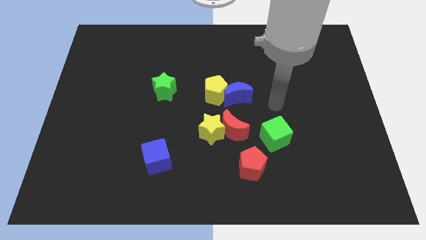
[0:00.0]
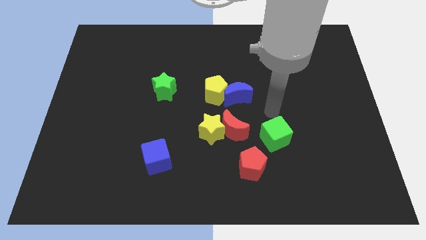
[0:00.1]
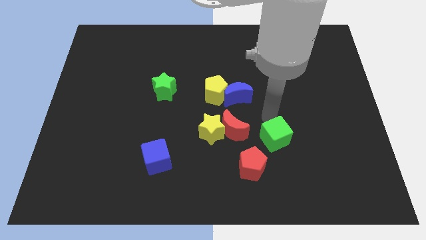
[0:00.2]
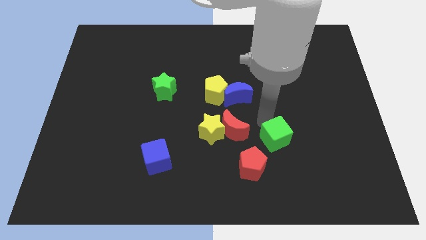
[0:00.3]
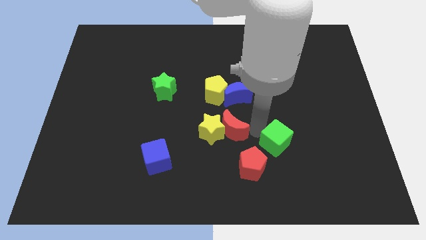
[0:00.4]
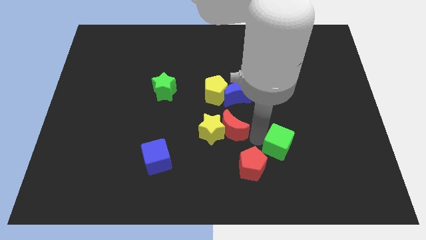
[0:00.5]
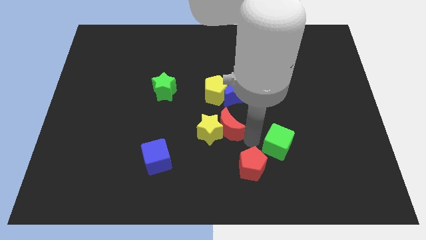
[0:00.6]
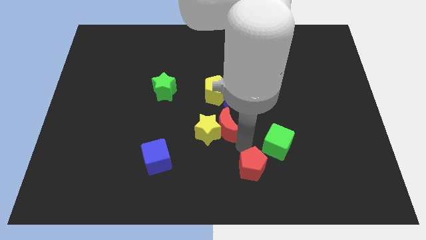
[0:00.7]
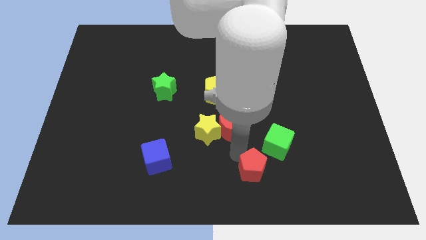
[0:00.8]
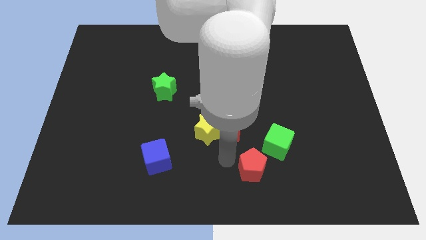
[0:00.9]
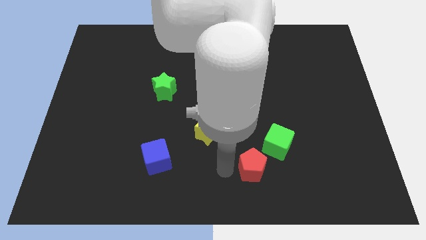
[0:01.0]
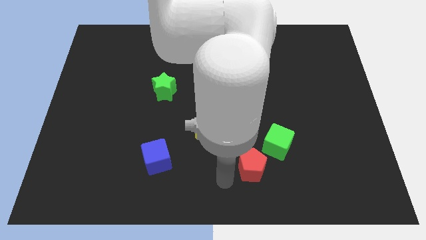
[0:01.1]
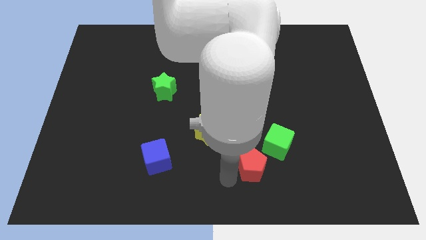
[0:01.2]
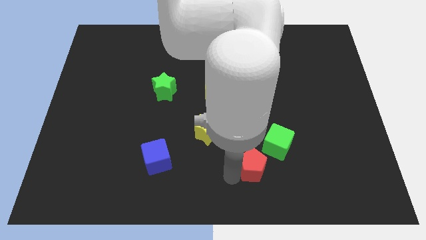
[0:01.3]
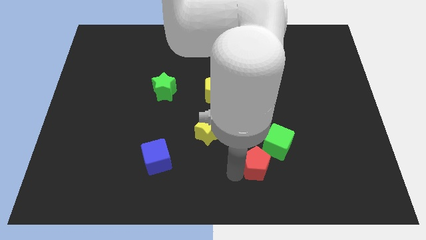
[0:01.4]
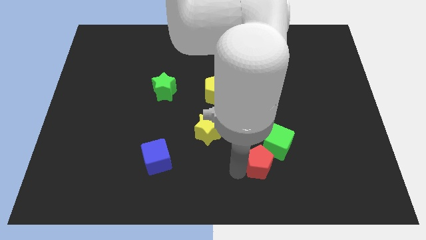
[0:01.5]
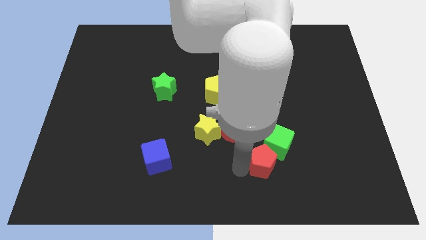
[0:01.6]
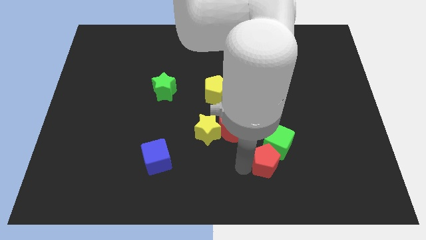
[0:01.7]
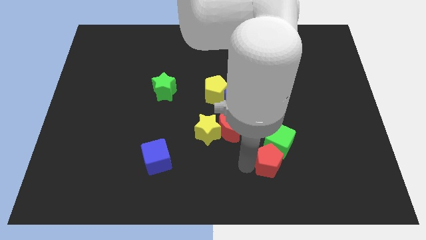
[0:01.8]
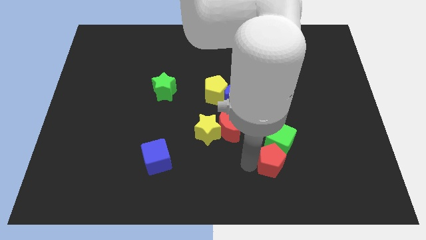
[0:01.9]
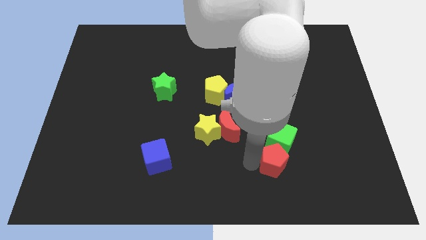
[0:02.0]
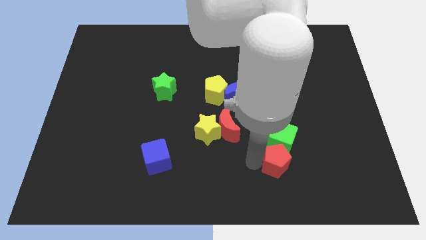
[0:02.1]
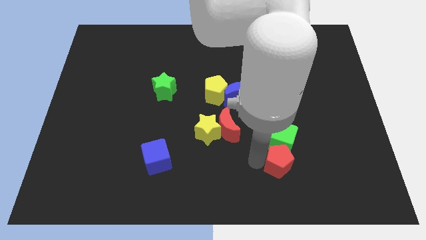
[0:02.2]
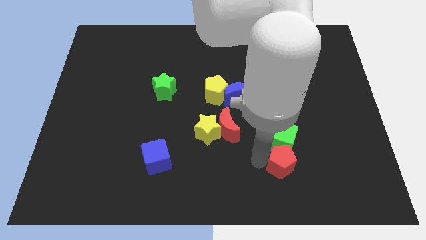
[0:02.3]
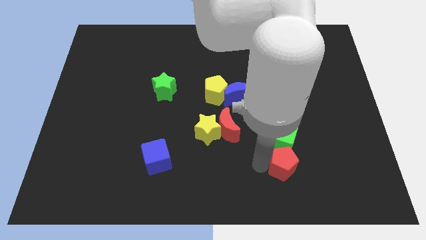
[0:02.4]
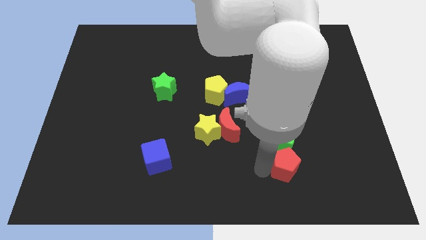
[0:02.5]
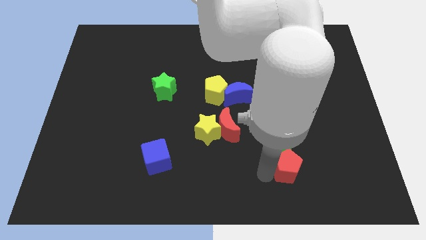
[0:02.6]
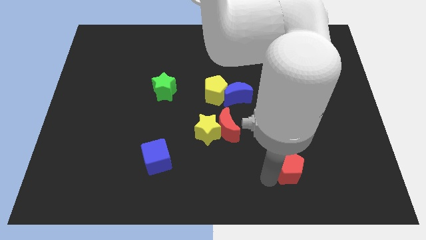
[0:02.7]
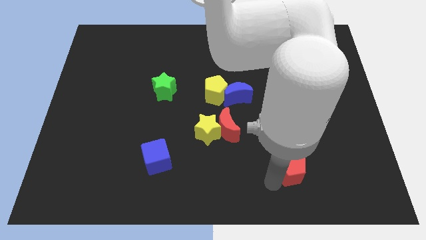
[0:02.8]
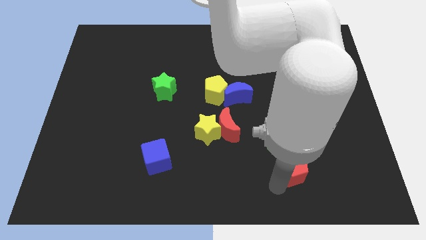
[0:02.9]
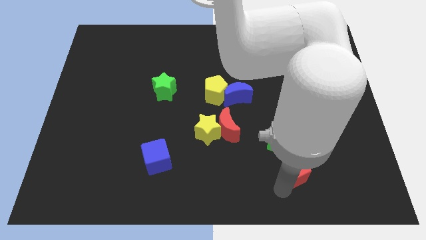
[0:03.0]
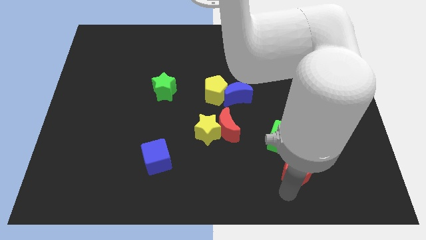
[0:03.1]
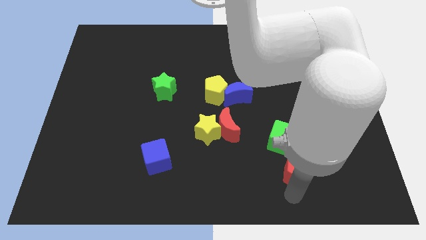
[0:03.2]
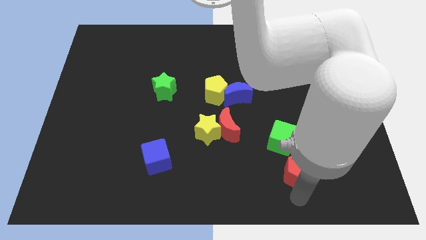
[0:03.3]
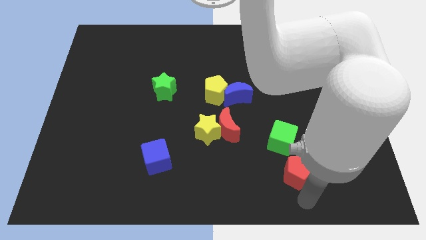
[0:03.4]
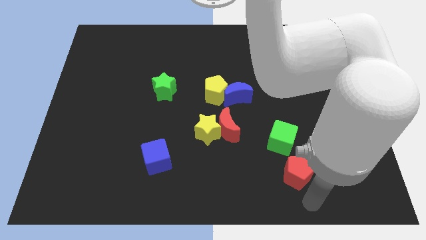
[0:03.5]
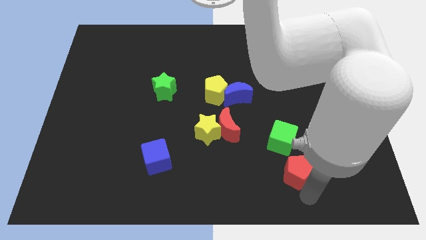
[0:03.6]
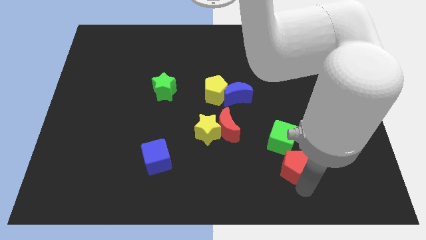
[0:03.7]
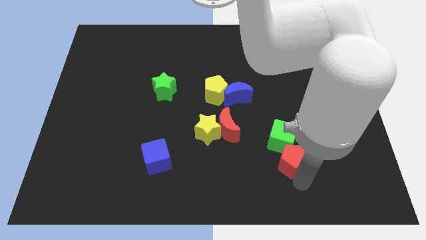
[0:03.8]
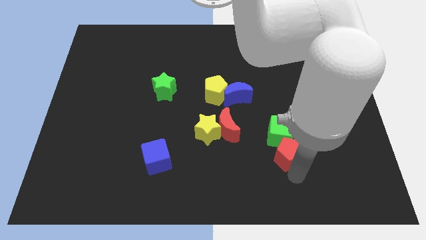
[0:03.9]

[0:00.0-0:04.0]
push the red pentagon up and then to the right a little

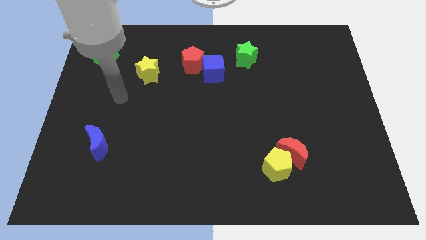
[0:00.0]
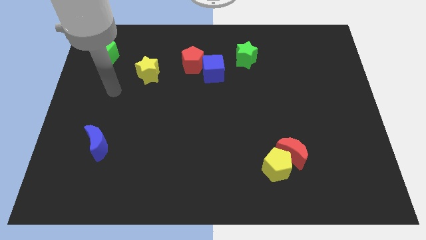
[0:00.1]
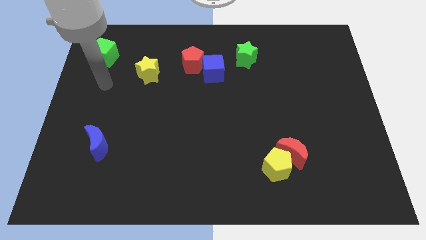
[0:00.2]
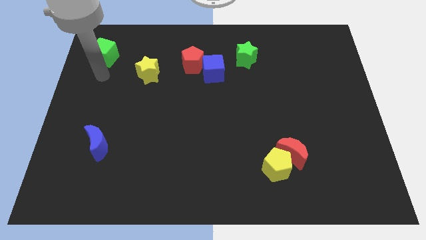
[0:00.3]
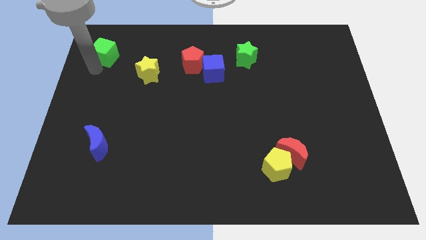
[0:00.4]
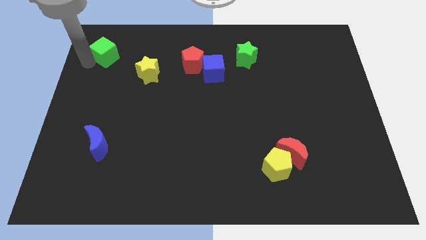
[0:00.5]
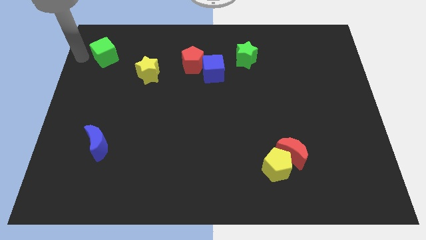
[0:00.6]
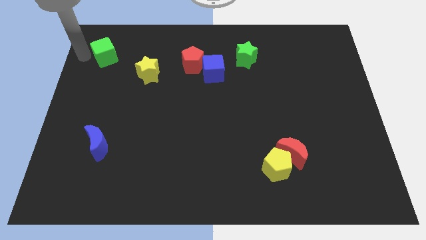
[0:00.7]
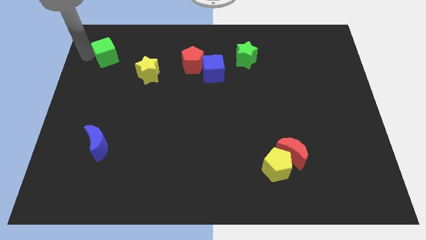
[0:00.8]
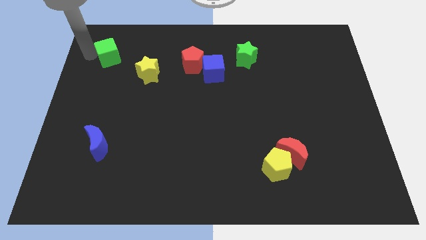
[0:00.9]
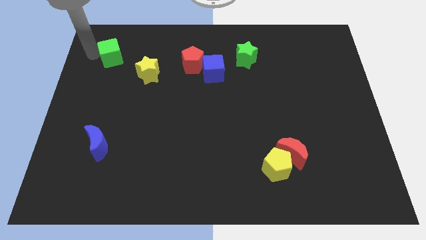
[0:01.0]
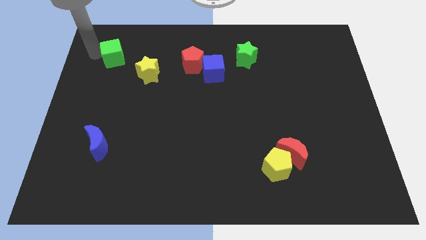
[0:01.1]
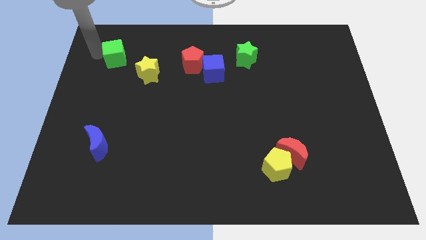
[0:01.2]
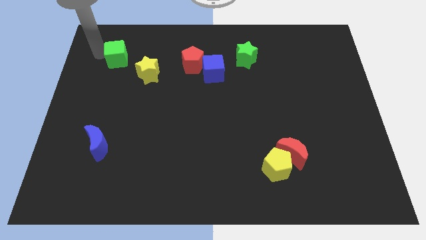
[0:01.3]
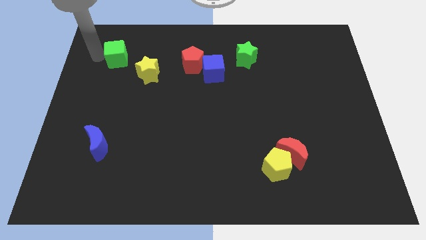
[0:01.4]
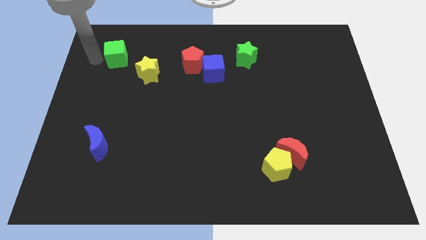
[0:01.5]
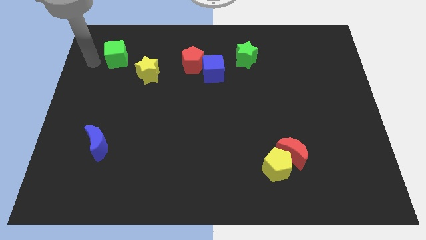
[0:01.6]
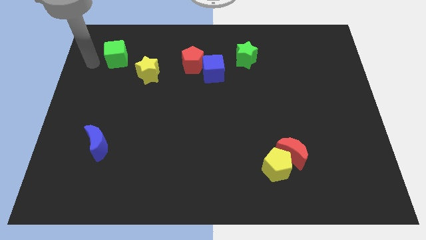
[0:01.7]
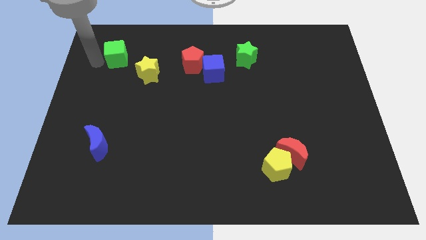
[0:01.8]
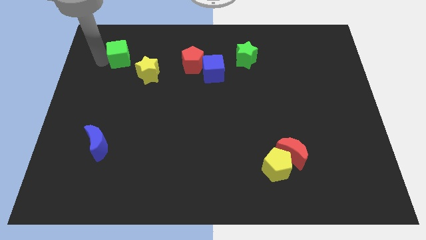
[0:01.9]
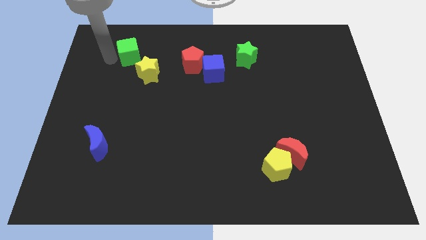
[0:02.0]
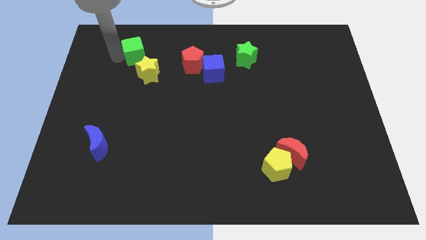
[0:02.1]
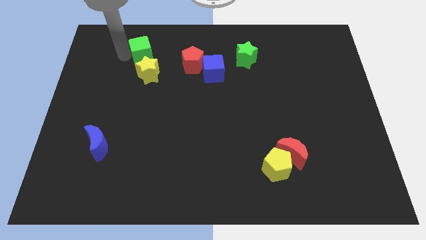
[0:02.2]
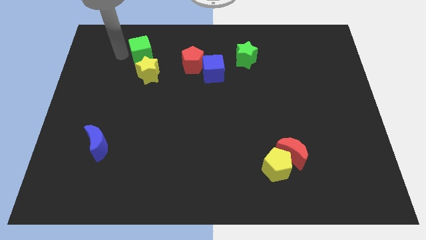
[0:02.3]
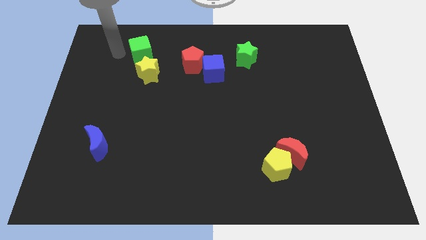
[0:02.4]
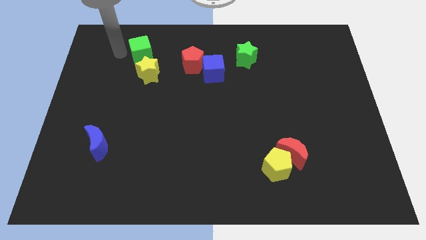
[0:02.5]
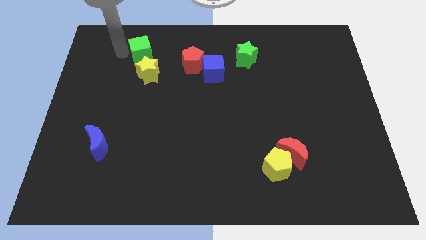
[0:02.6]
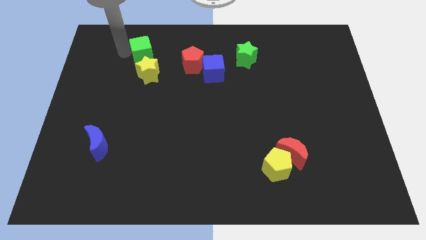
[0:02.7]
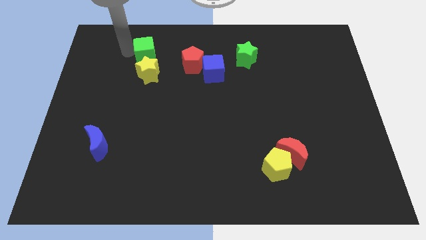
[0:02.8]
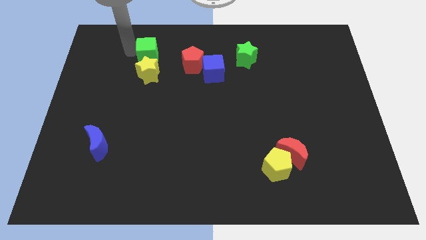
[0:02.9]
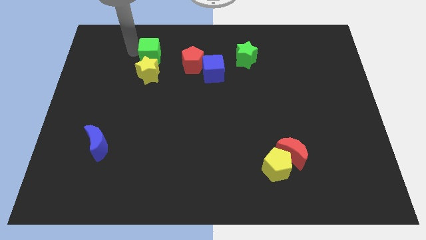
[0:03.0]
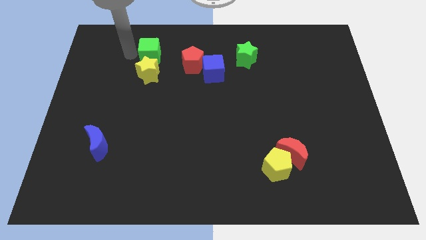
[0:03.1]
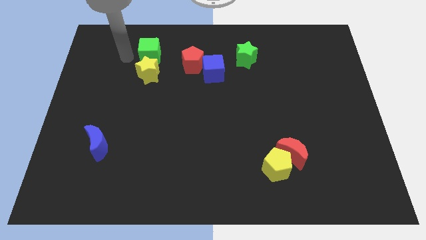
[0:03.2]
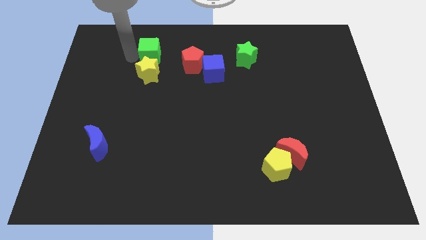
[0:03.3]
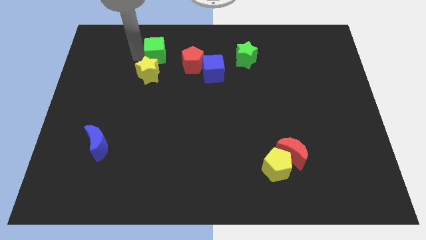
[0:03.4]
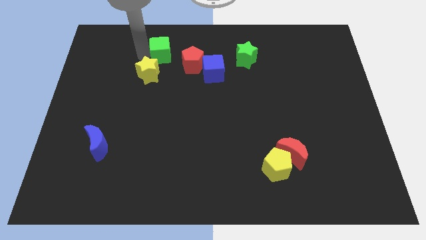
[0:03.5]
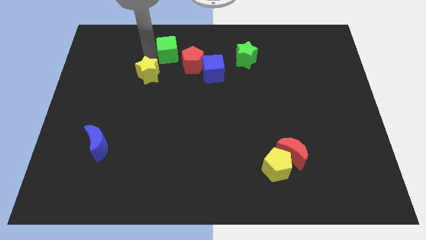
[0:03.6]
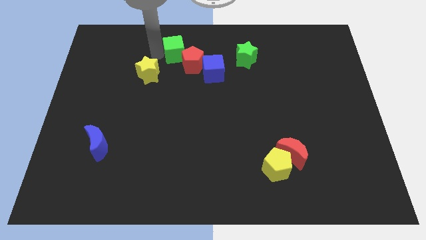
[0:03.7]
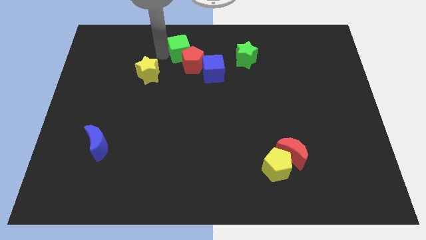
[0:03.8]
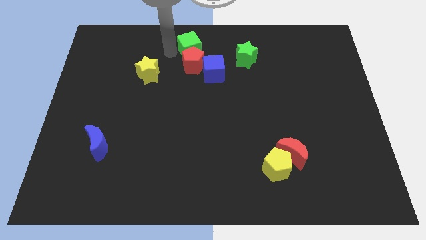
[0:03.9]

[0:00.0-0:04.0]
move the green cube right

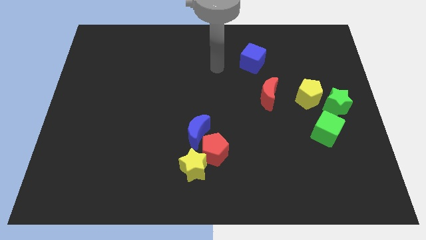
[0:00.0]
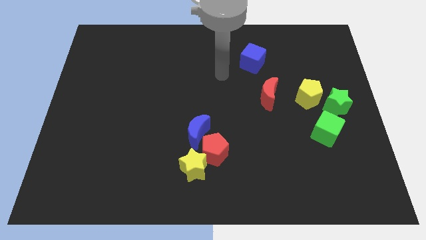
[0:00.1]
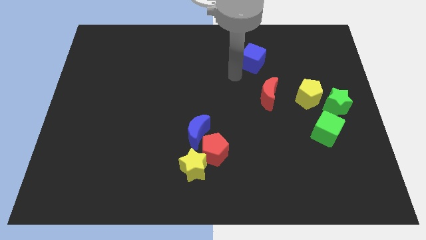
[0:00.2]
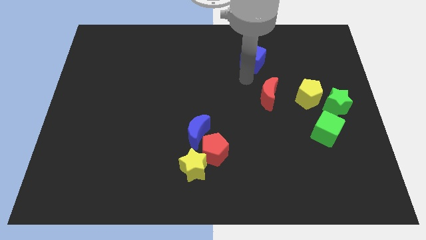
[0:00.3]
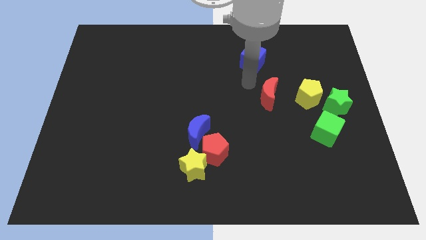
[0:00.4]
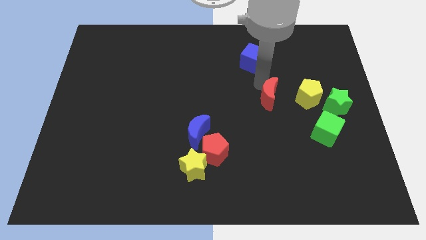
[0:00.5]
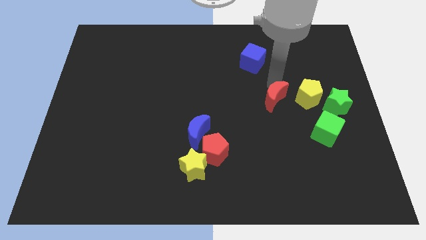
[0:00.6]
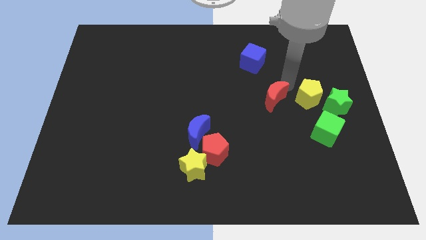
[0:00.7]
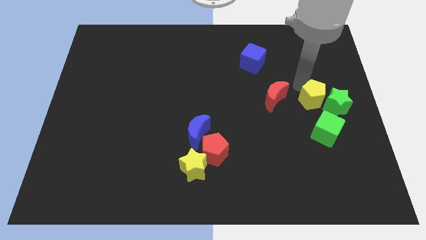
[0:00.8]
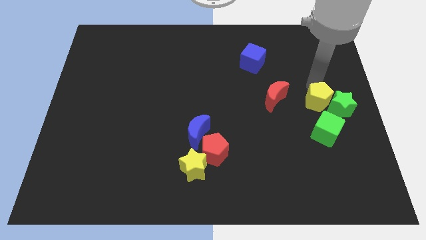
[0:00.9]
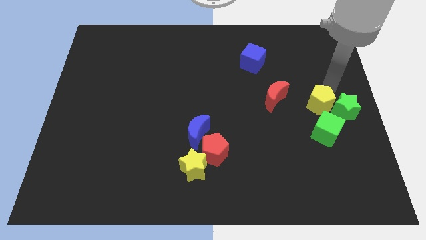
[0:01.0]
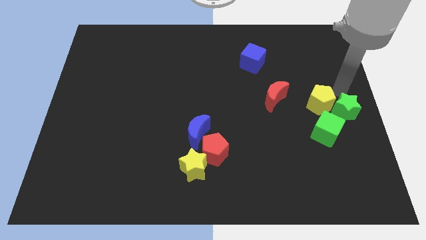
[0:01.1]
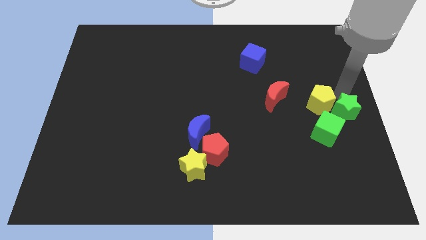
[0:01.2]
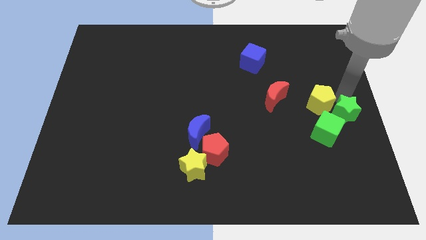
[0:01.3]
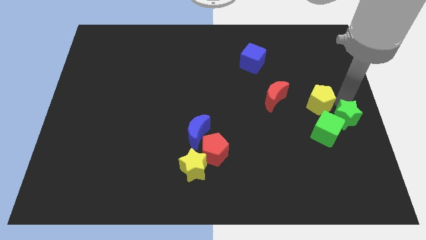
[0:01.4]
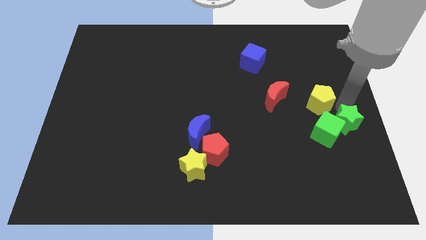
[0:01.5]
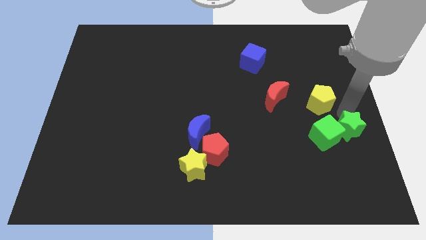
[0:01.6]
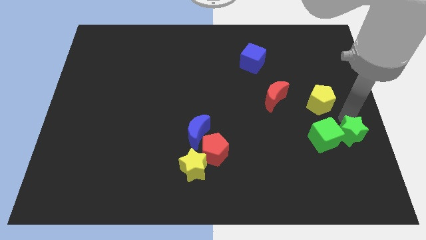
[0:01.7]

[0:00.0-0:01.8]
slide the green star somewhat down
